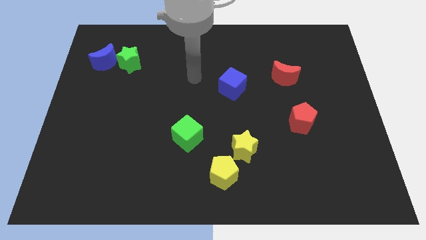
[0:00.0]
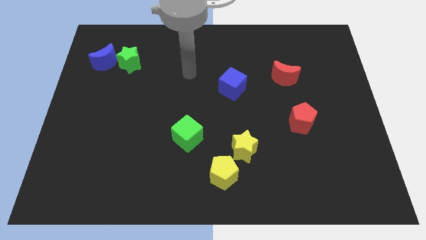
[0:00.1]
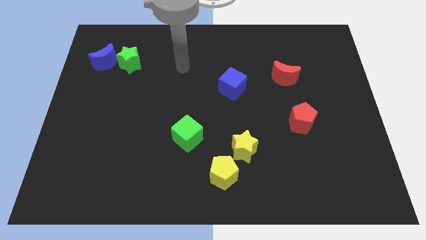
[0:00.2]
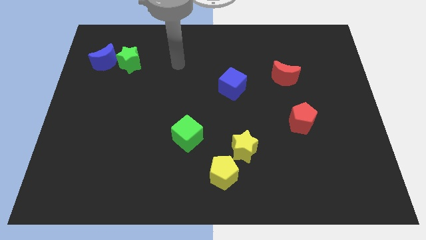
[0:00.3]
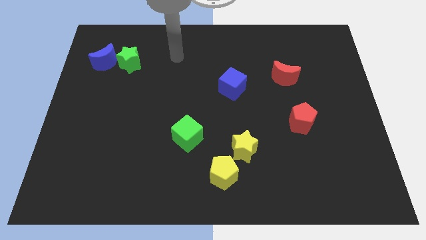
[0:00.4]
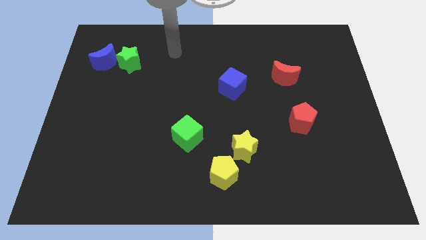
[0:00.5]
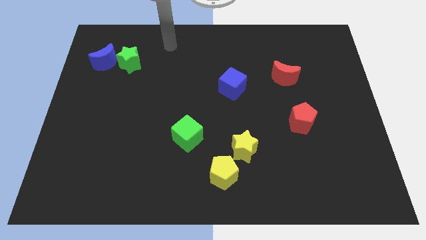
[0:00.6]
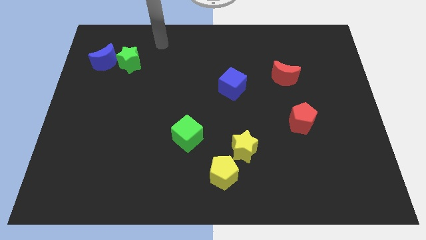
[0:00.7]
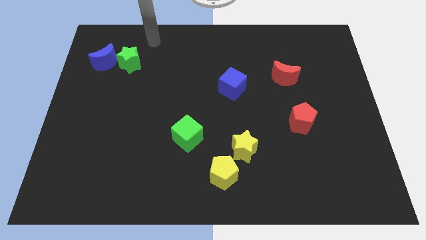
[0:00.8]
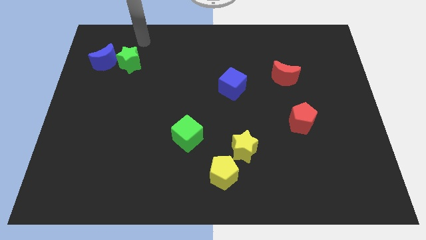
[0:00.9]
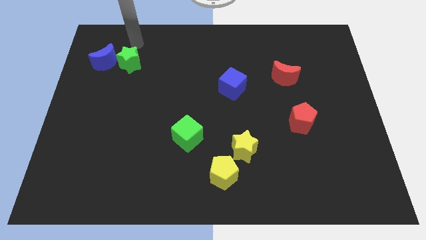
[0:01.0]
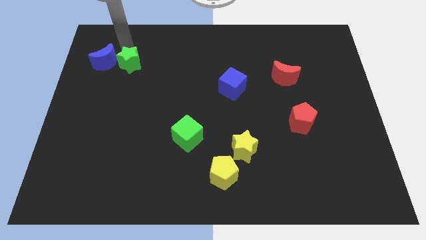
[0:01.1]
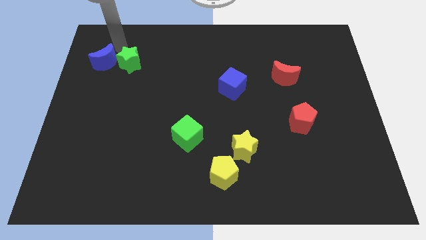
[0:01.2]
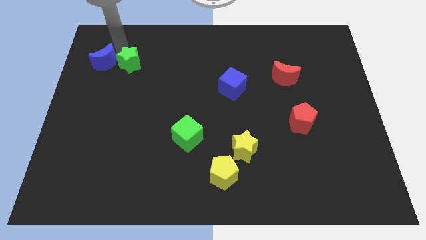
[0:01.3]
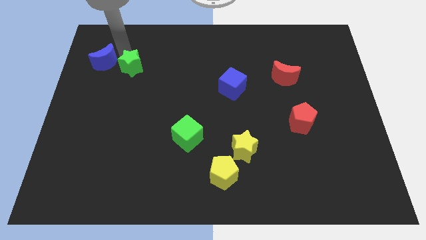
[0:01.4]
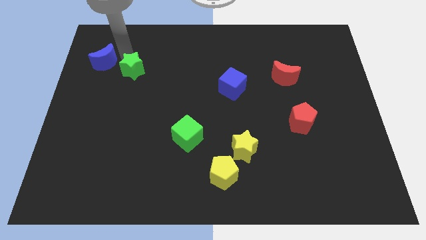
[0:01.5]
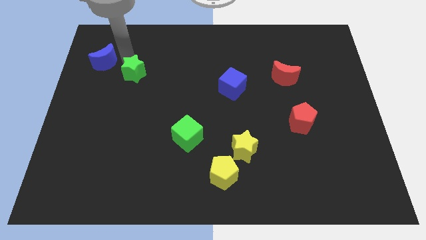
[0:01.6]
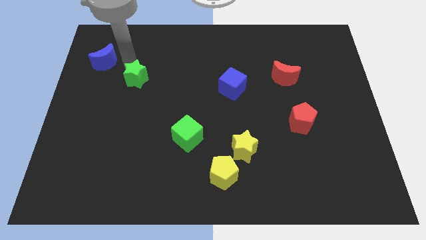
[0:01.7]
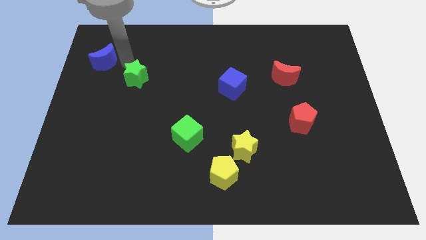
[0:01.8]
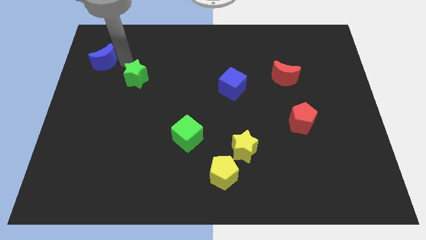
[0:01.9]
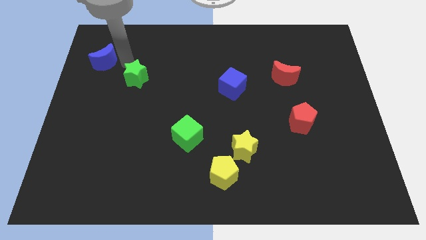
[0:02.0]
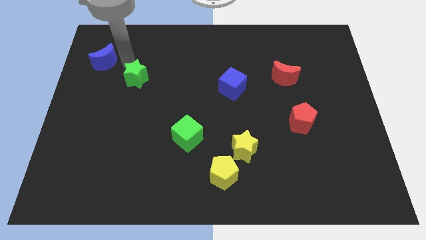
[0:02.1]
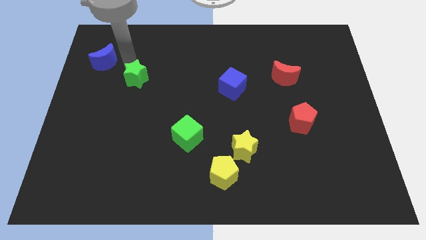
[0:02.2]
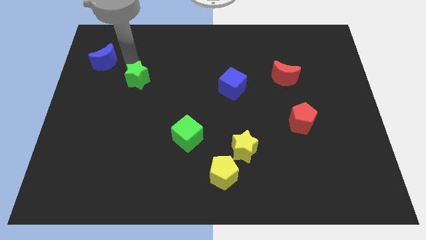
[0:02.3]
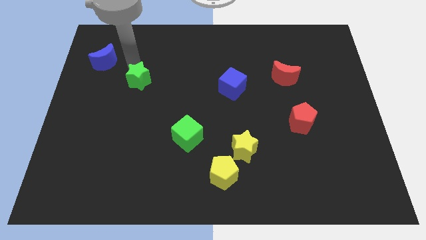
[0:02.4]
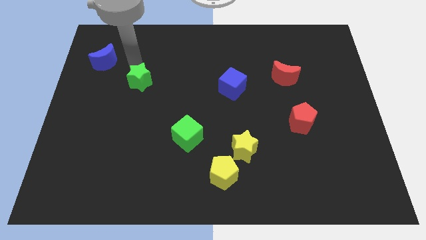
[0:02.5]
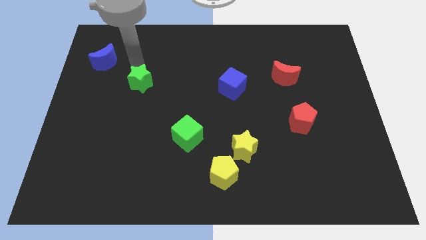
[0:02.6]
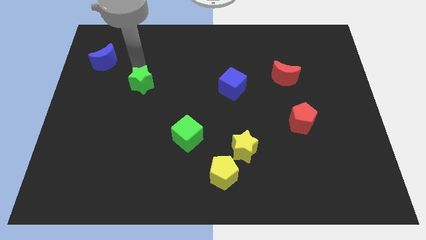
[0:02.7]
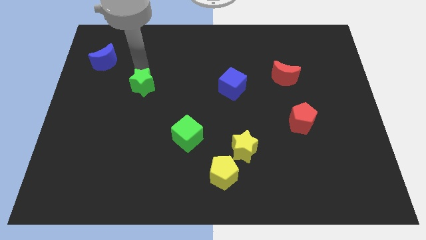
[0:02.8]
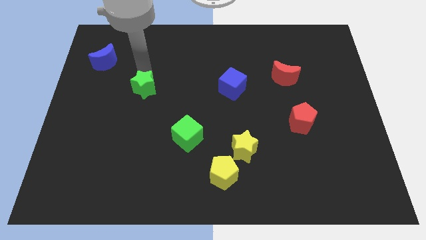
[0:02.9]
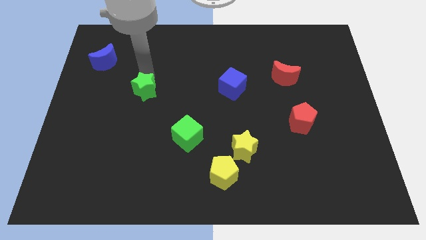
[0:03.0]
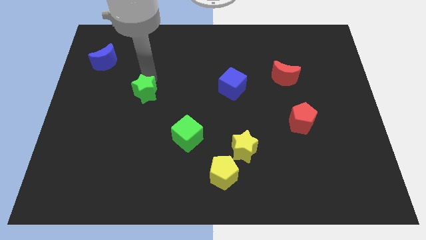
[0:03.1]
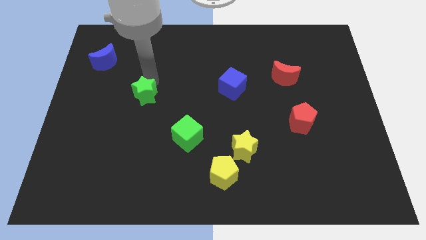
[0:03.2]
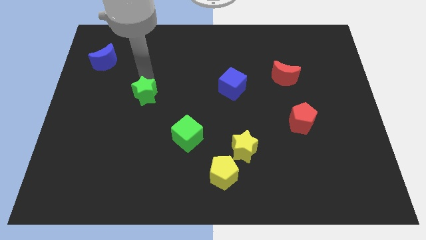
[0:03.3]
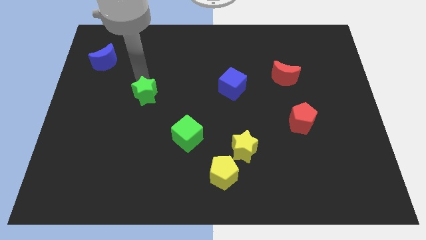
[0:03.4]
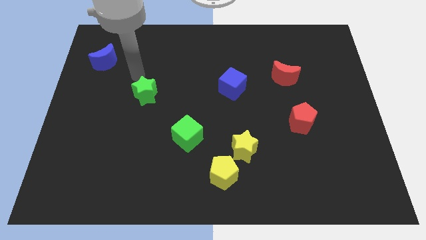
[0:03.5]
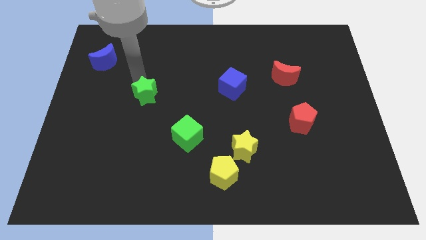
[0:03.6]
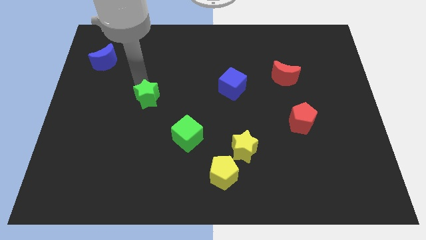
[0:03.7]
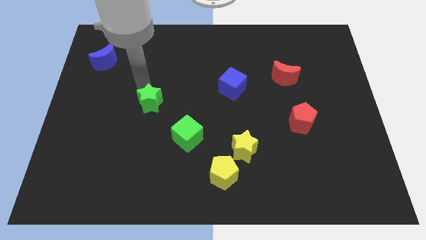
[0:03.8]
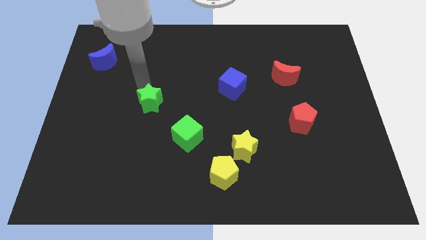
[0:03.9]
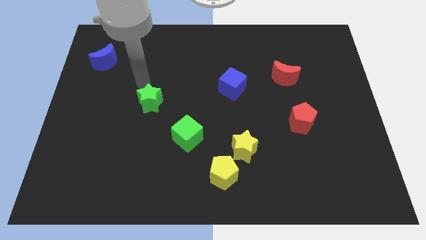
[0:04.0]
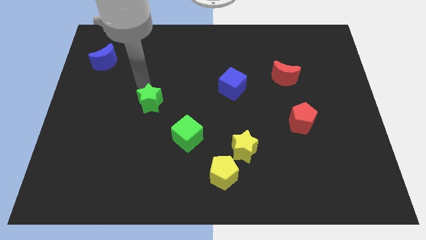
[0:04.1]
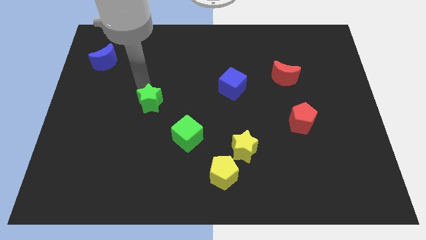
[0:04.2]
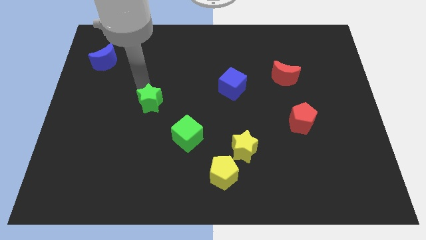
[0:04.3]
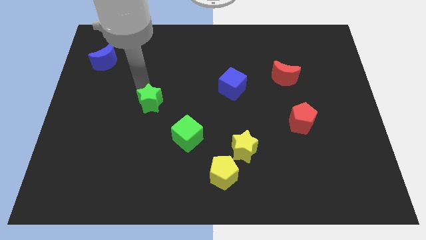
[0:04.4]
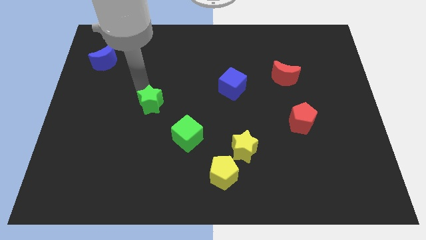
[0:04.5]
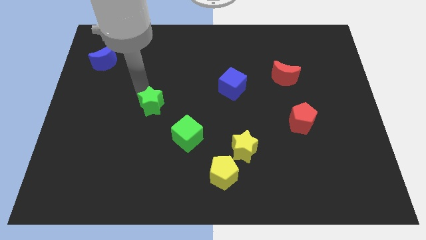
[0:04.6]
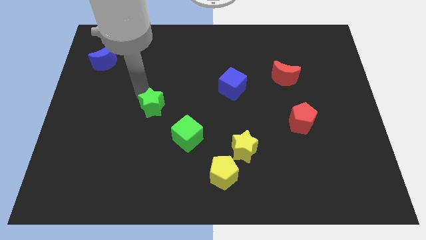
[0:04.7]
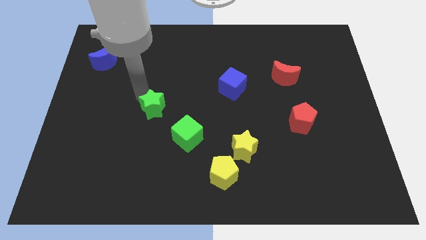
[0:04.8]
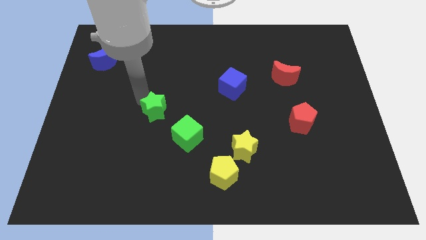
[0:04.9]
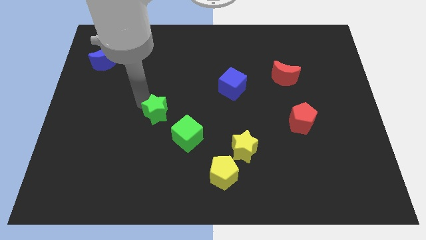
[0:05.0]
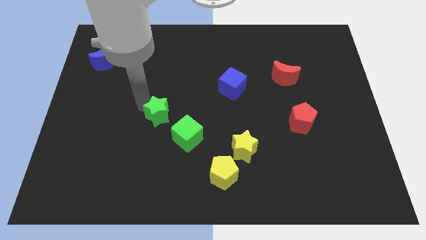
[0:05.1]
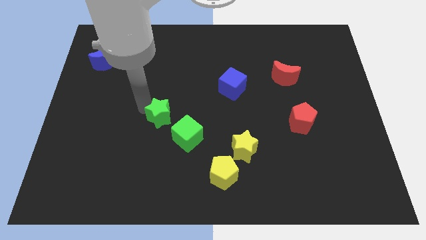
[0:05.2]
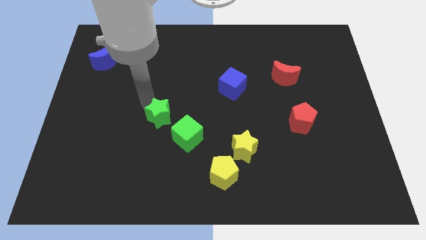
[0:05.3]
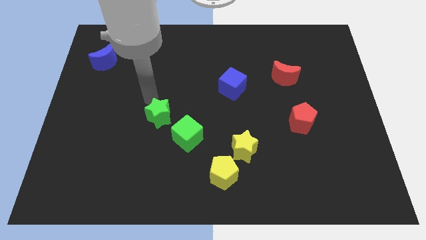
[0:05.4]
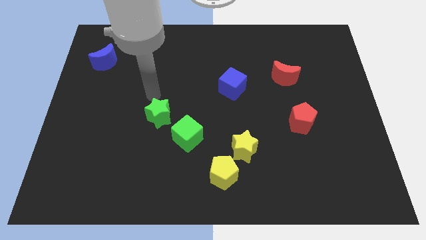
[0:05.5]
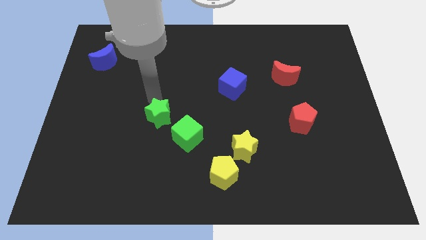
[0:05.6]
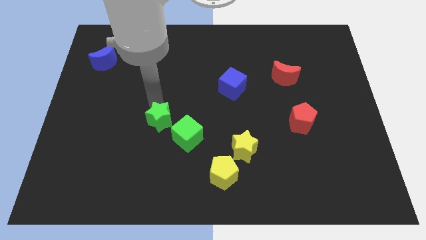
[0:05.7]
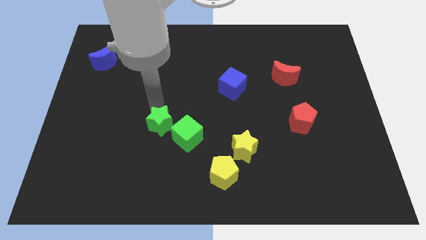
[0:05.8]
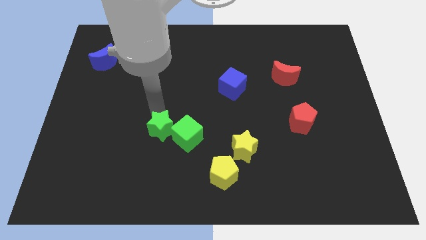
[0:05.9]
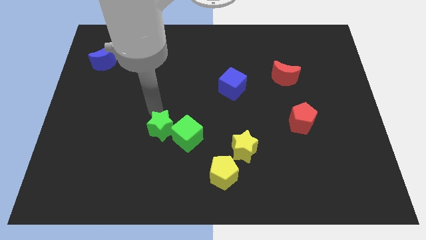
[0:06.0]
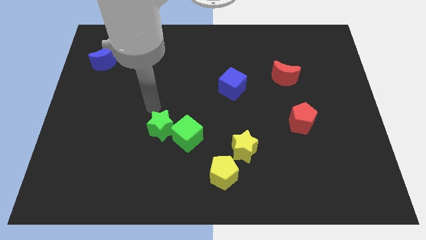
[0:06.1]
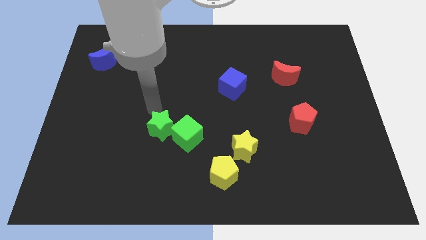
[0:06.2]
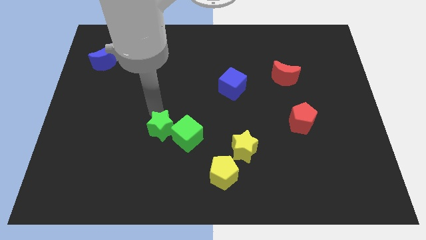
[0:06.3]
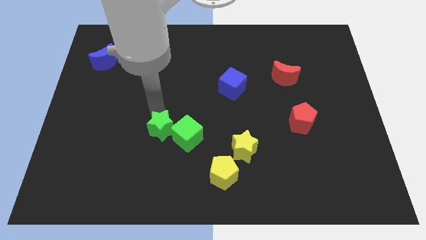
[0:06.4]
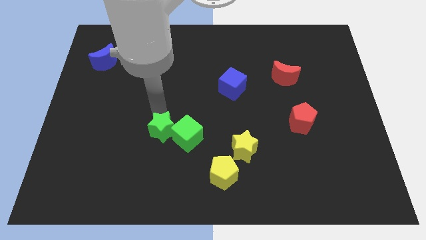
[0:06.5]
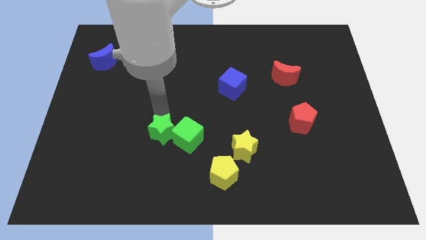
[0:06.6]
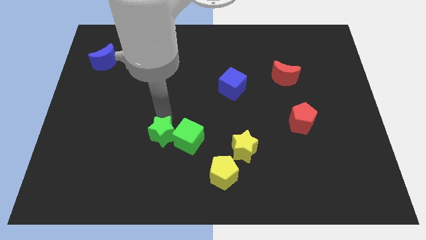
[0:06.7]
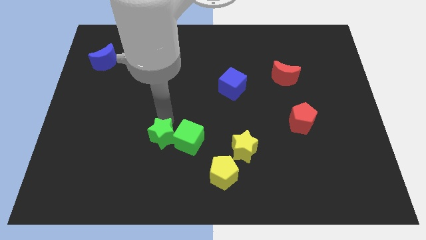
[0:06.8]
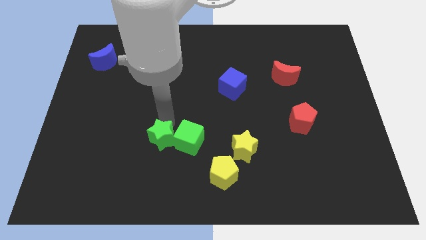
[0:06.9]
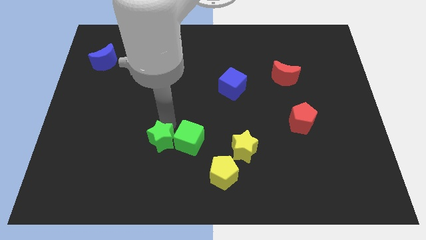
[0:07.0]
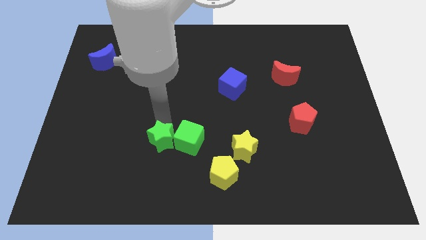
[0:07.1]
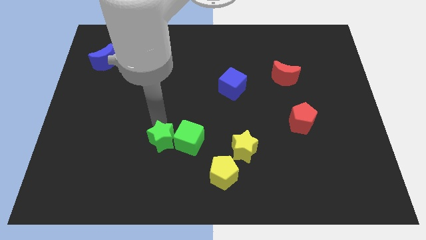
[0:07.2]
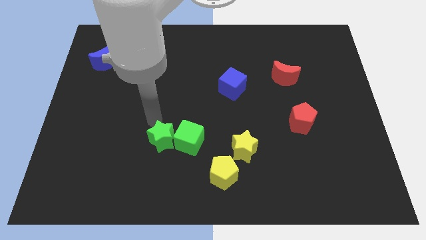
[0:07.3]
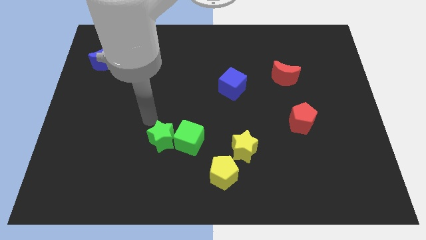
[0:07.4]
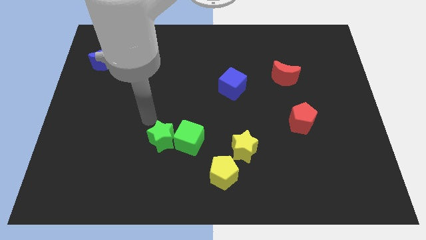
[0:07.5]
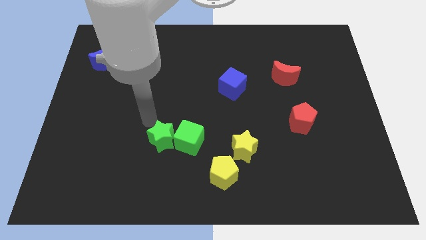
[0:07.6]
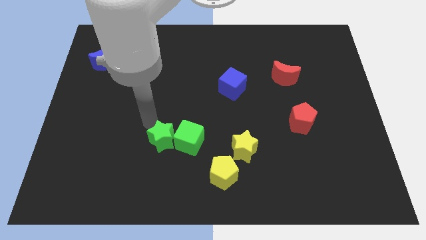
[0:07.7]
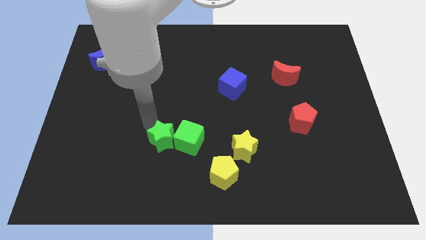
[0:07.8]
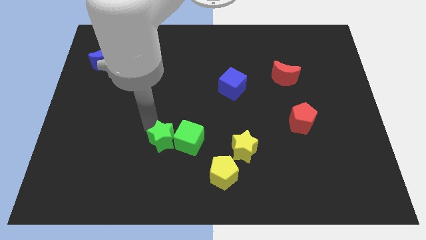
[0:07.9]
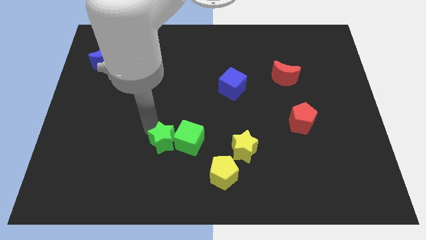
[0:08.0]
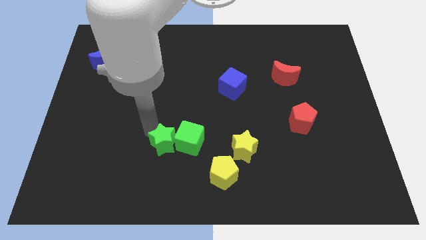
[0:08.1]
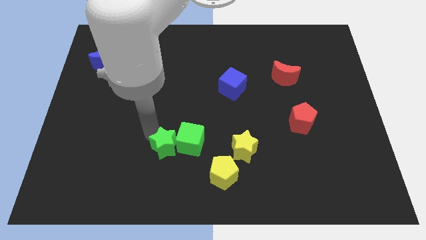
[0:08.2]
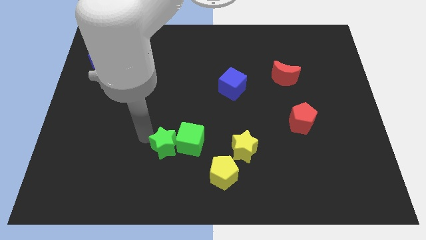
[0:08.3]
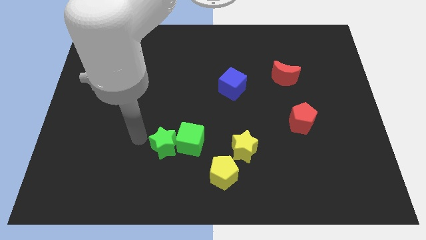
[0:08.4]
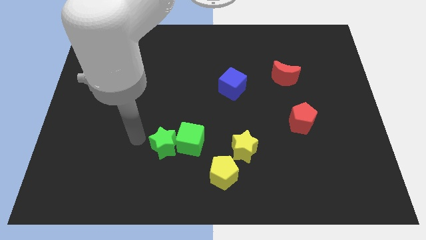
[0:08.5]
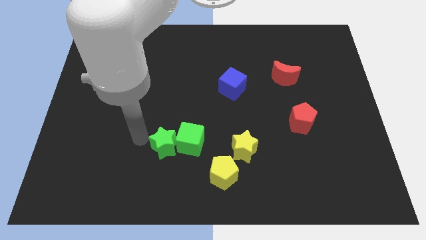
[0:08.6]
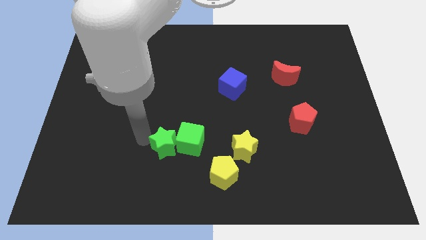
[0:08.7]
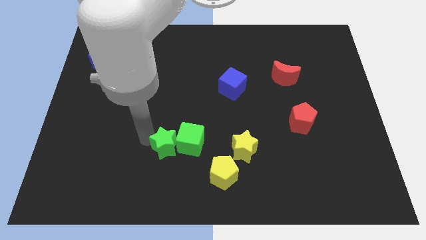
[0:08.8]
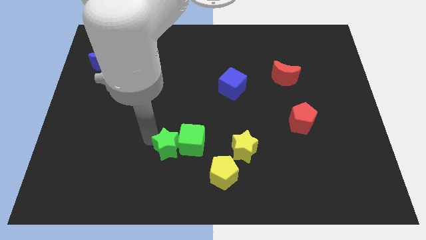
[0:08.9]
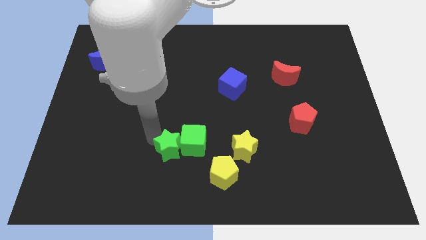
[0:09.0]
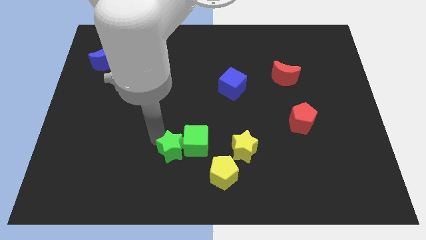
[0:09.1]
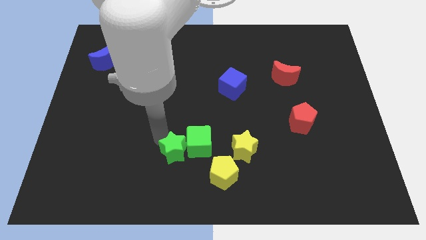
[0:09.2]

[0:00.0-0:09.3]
move the green star diagonally up and to the left of the yellow pentagon
